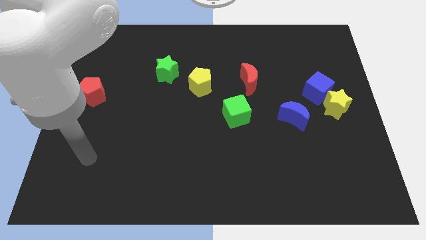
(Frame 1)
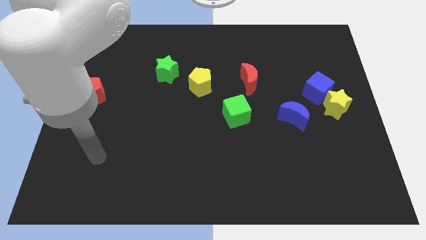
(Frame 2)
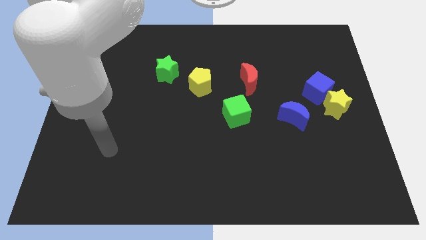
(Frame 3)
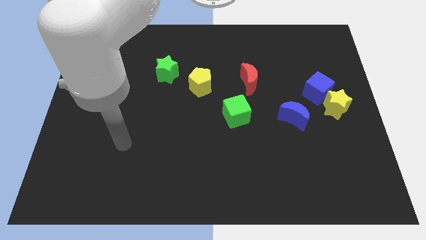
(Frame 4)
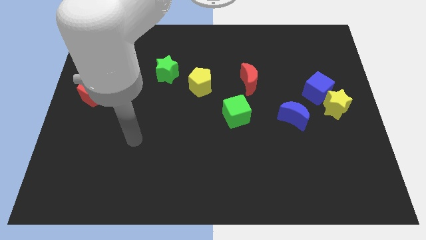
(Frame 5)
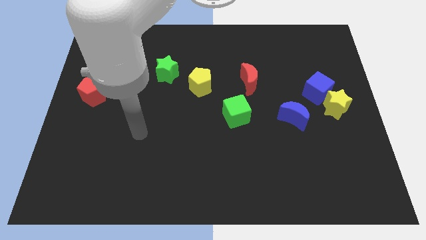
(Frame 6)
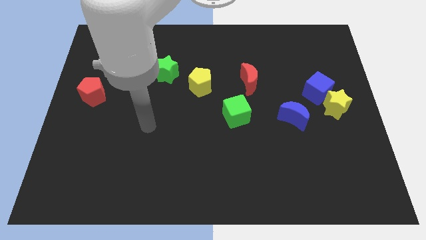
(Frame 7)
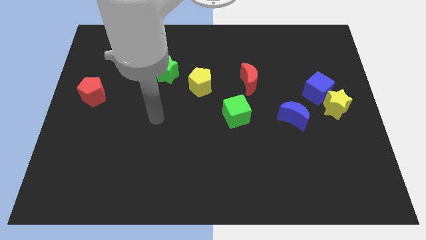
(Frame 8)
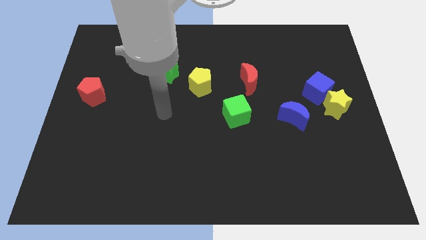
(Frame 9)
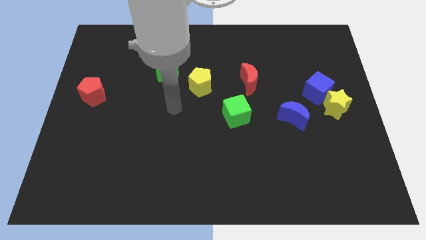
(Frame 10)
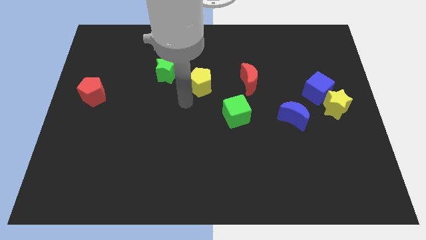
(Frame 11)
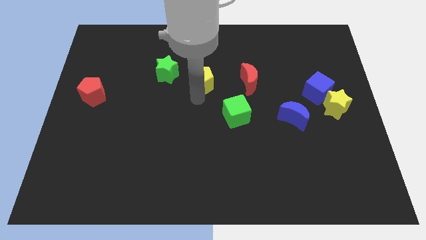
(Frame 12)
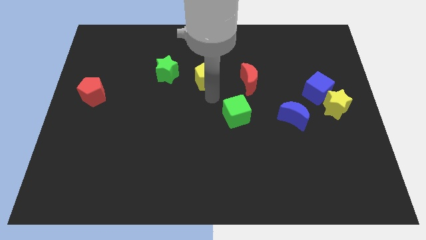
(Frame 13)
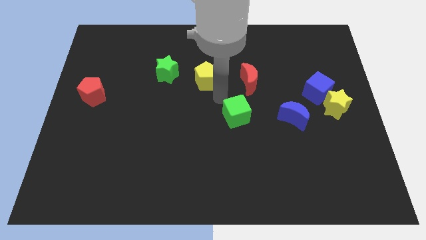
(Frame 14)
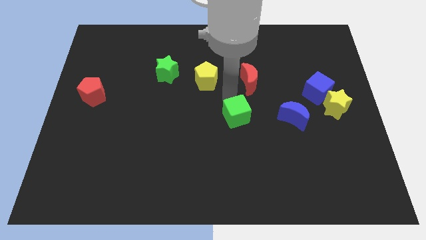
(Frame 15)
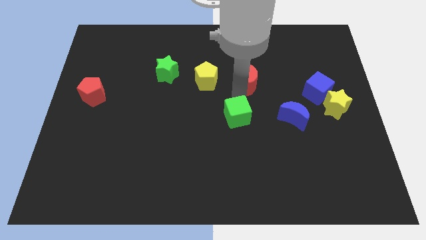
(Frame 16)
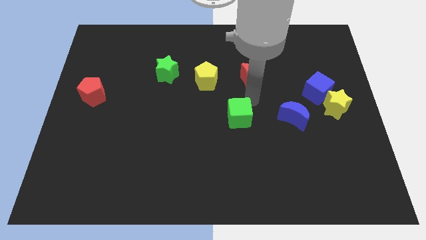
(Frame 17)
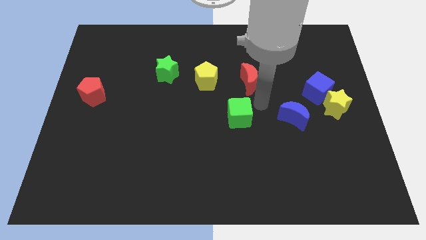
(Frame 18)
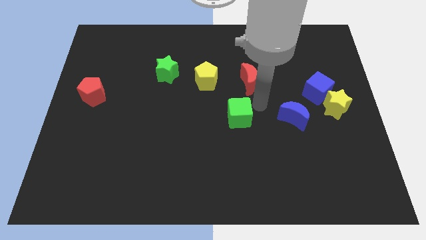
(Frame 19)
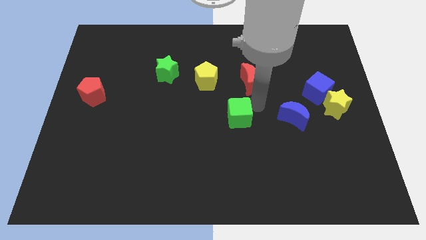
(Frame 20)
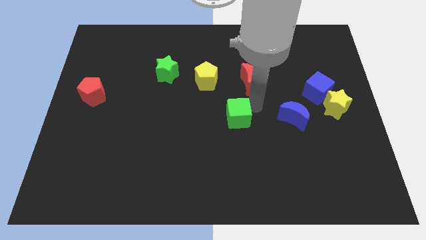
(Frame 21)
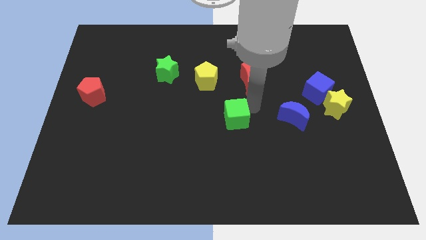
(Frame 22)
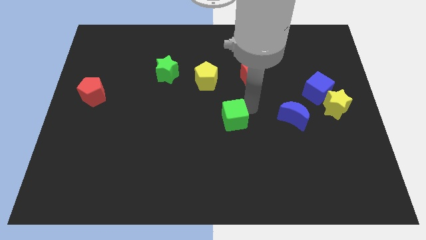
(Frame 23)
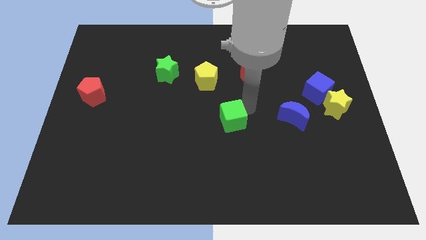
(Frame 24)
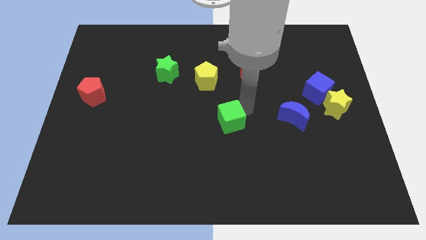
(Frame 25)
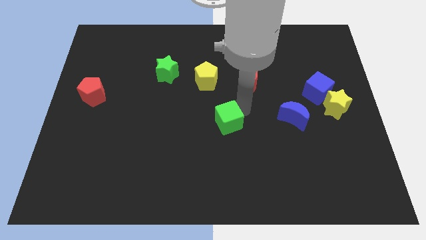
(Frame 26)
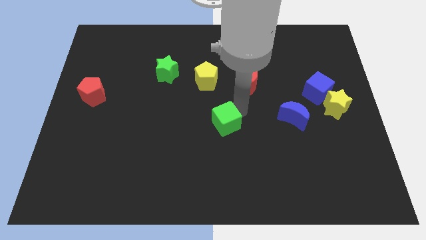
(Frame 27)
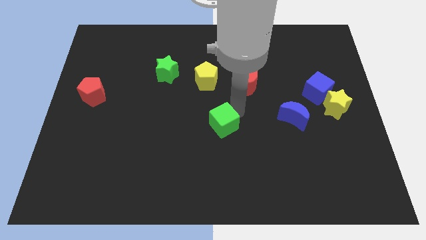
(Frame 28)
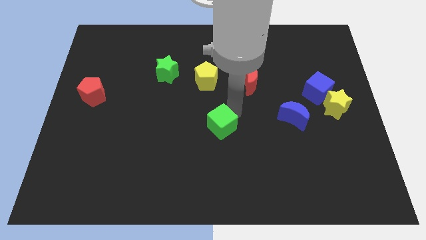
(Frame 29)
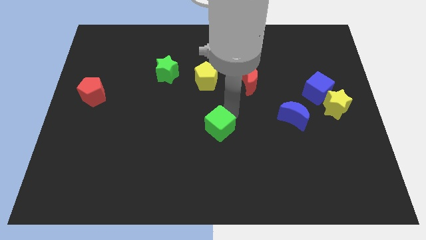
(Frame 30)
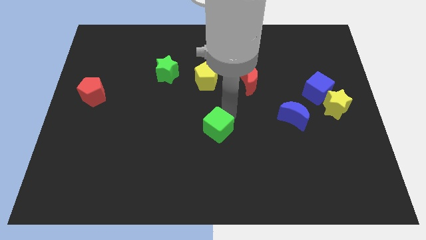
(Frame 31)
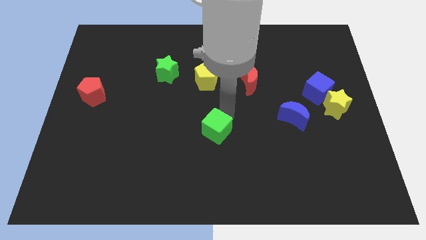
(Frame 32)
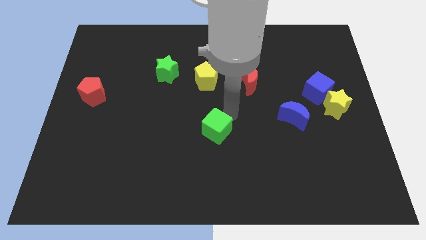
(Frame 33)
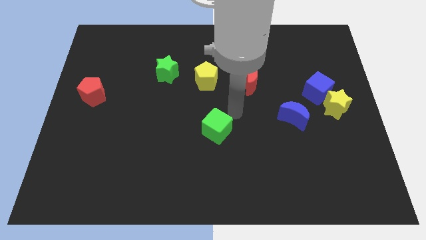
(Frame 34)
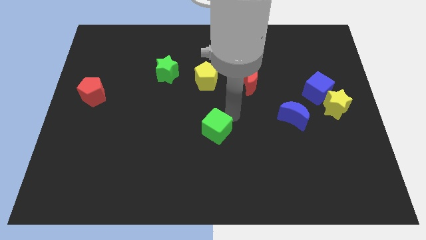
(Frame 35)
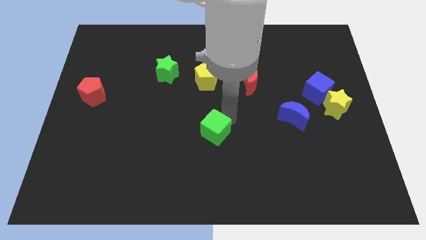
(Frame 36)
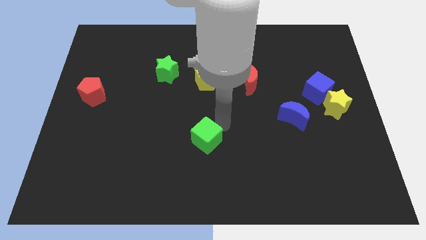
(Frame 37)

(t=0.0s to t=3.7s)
slide the green cube down and to the left slightly

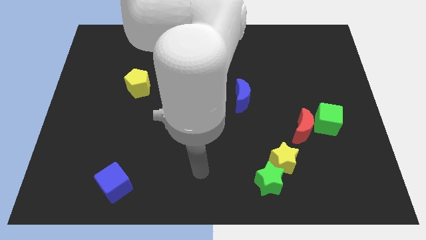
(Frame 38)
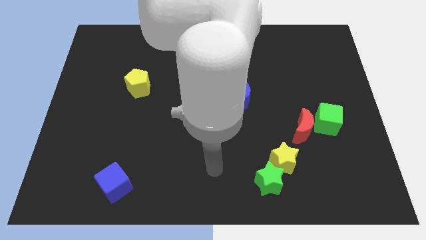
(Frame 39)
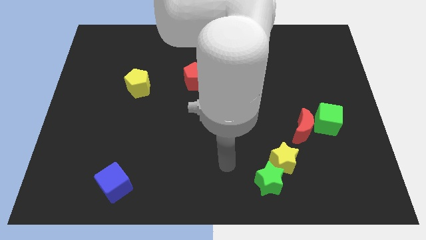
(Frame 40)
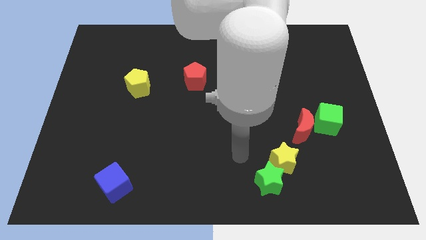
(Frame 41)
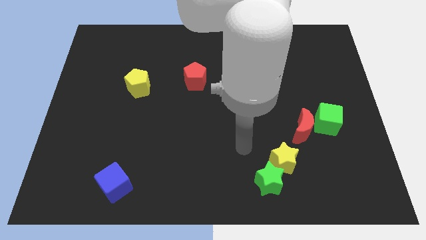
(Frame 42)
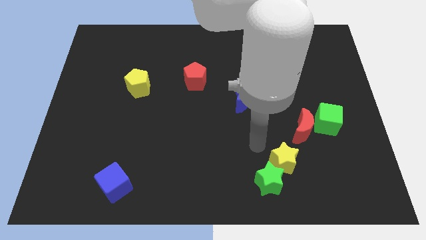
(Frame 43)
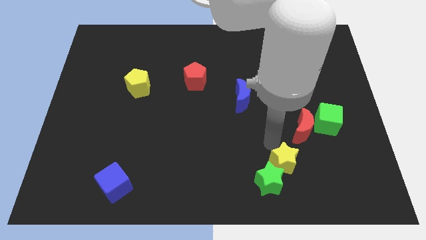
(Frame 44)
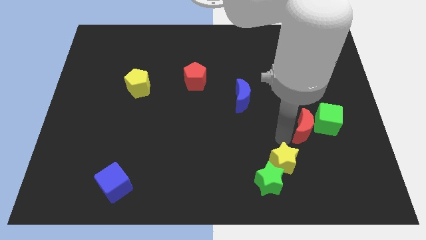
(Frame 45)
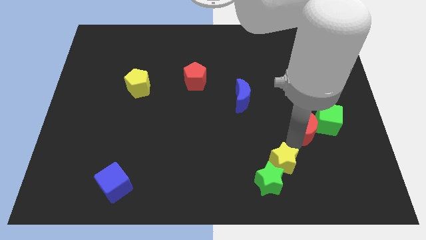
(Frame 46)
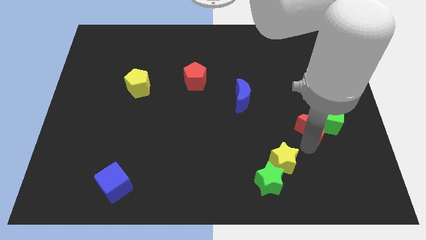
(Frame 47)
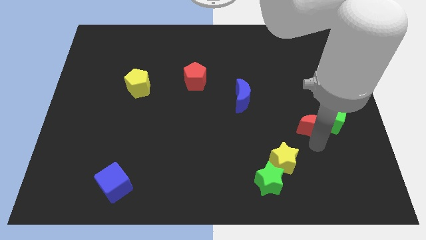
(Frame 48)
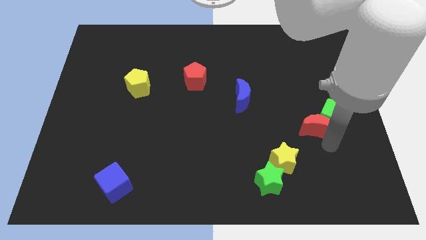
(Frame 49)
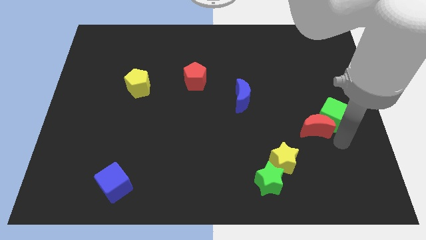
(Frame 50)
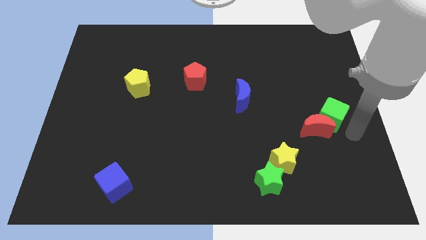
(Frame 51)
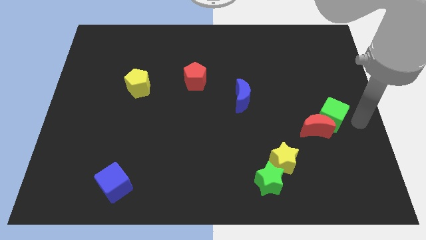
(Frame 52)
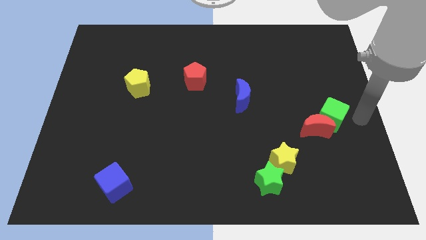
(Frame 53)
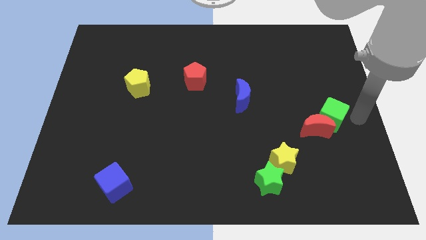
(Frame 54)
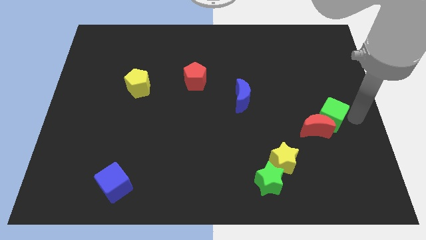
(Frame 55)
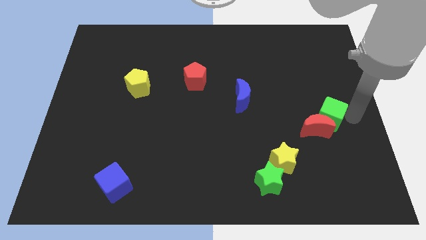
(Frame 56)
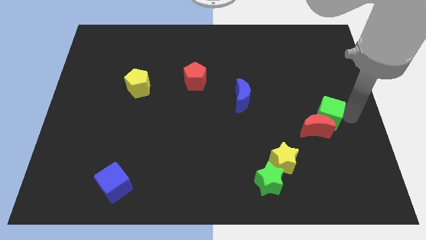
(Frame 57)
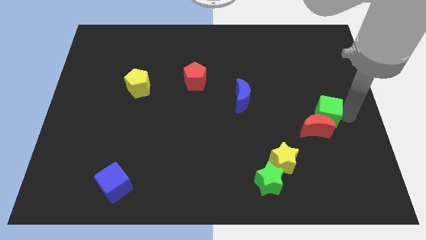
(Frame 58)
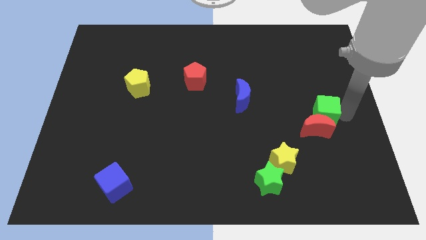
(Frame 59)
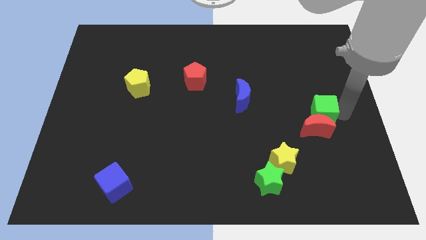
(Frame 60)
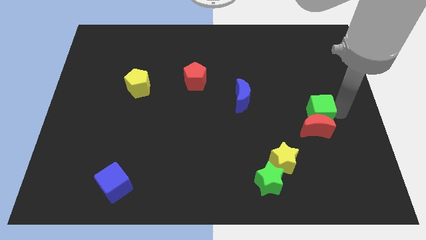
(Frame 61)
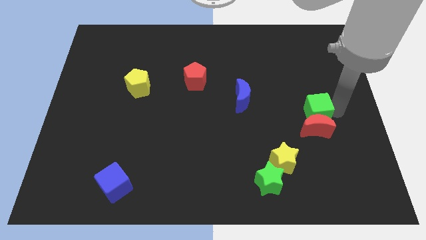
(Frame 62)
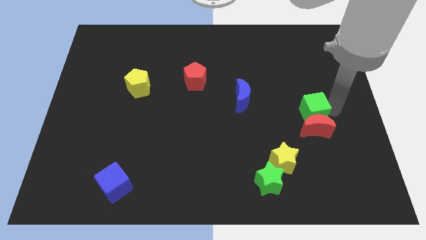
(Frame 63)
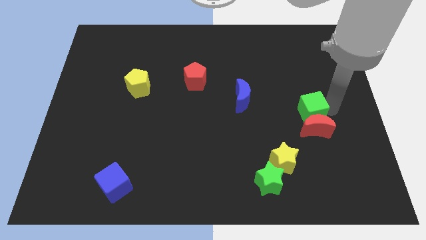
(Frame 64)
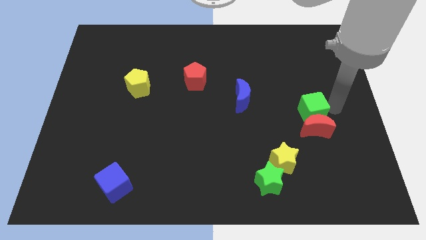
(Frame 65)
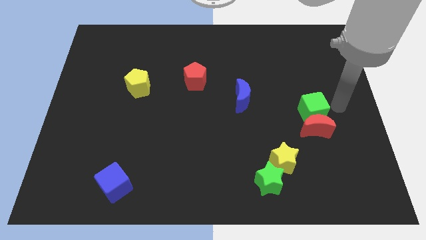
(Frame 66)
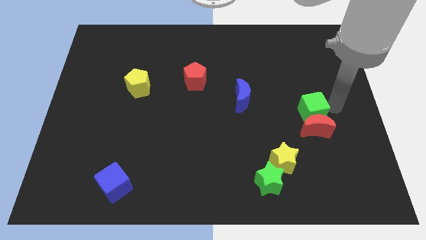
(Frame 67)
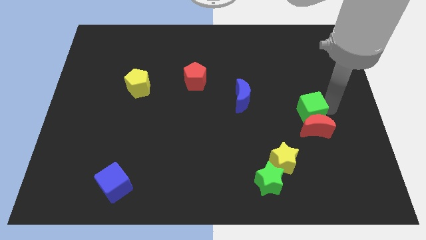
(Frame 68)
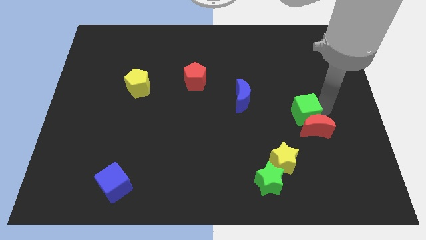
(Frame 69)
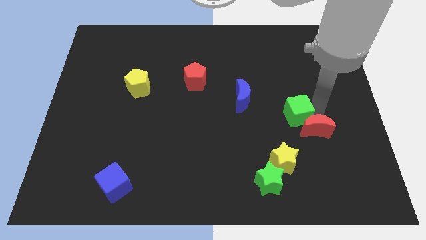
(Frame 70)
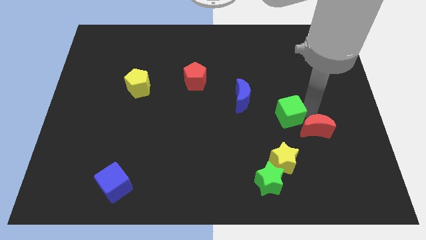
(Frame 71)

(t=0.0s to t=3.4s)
slide the green cube left a bit

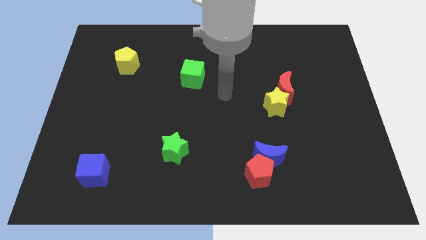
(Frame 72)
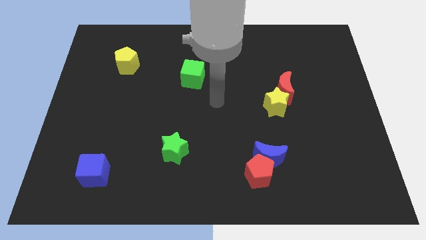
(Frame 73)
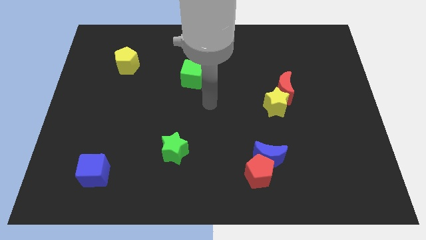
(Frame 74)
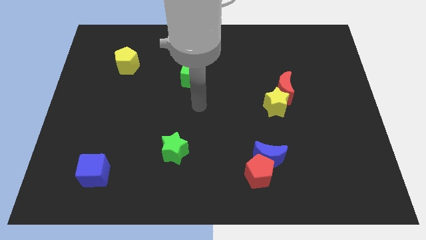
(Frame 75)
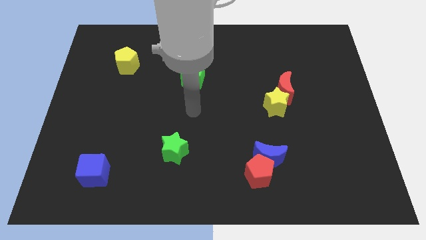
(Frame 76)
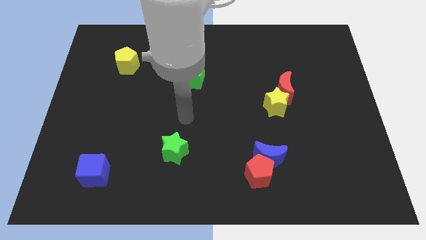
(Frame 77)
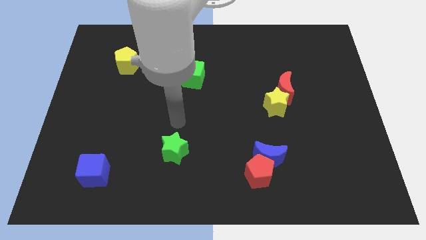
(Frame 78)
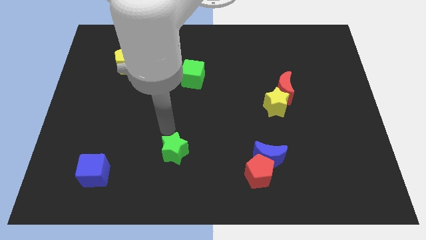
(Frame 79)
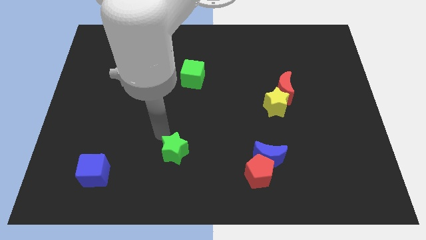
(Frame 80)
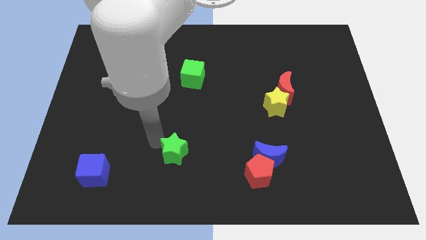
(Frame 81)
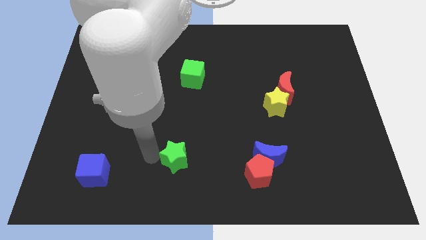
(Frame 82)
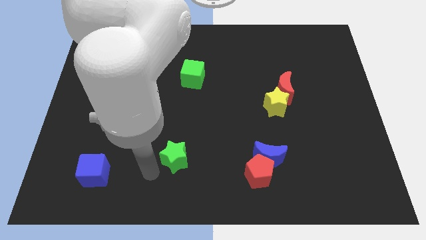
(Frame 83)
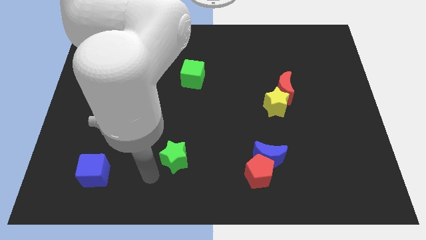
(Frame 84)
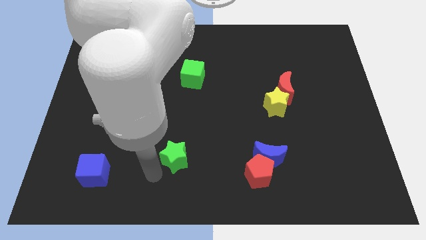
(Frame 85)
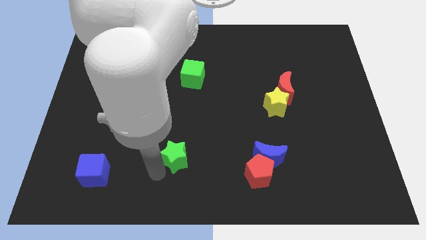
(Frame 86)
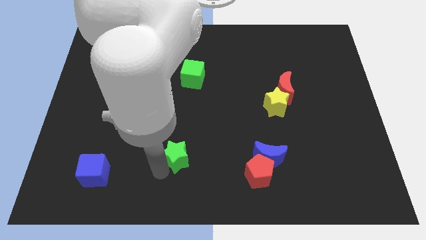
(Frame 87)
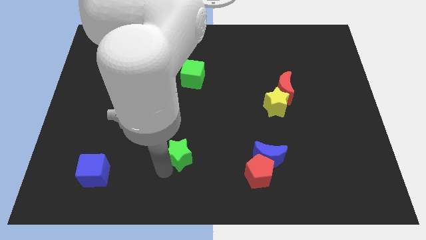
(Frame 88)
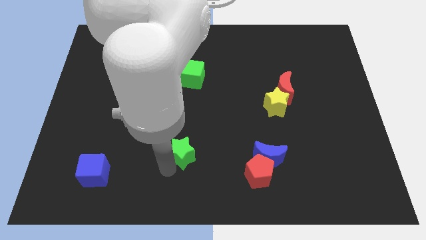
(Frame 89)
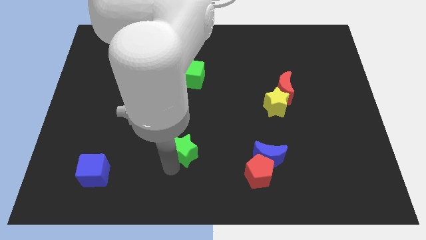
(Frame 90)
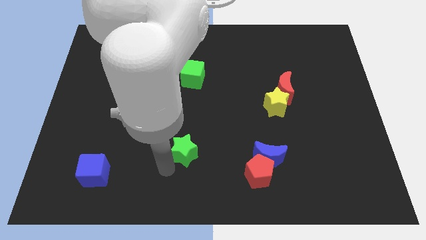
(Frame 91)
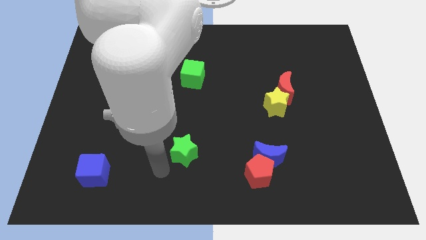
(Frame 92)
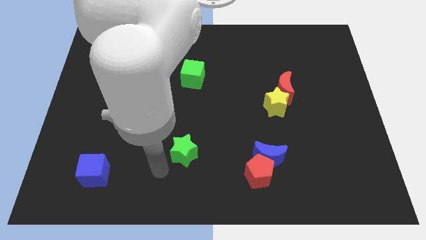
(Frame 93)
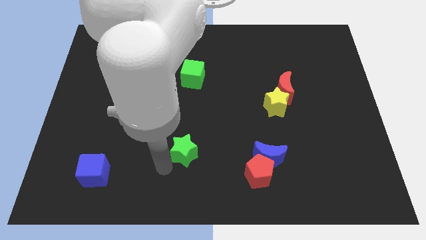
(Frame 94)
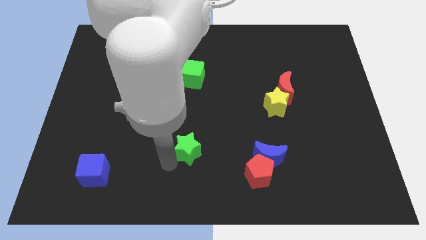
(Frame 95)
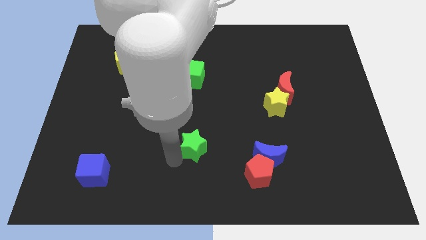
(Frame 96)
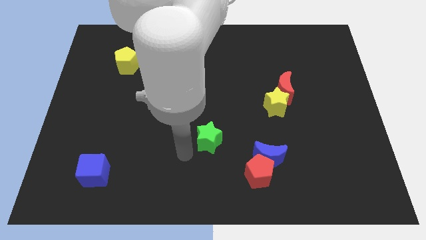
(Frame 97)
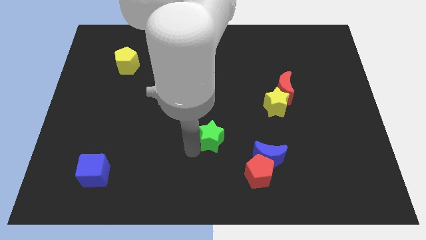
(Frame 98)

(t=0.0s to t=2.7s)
slide the green star a little bit up and to the right
